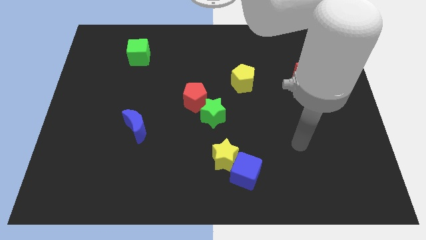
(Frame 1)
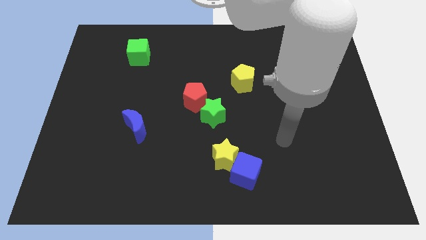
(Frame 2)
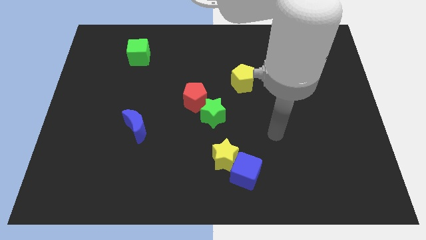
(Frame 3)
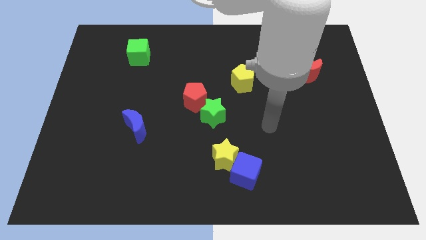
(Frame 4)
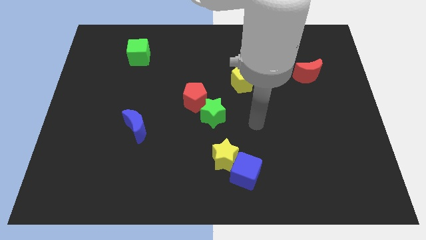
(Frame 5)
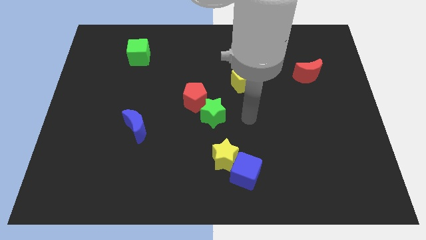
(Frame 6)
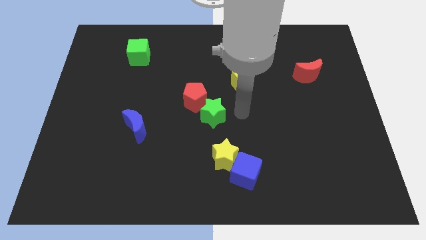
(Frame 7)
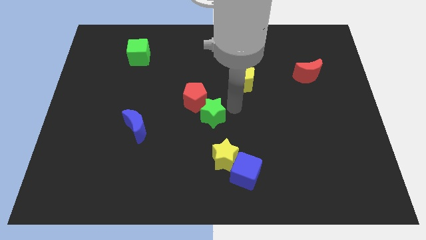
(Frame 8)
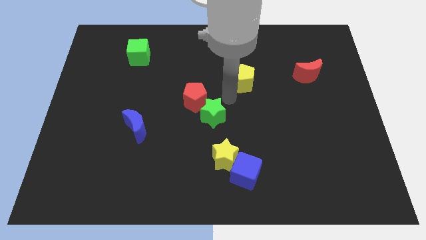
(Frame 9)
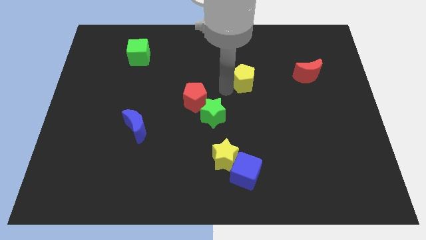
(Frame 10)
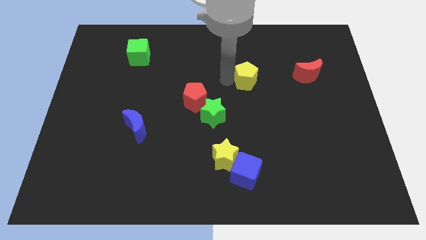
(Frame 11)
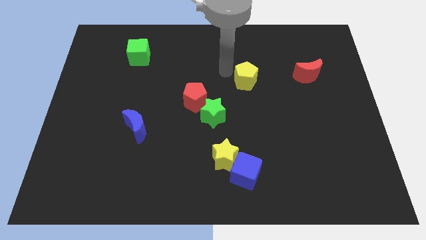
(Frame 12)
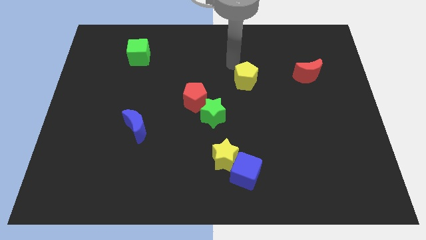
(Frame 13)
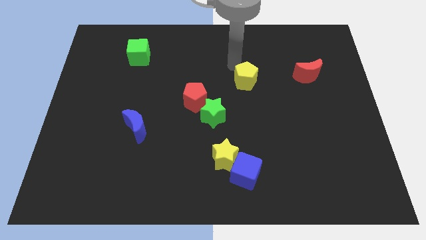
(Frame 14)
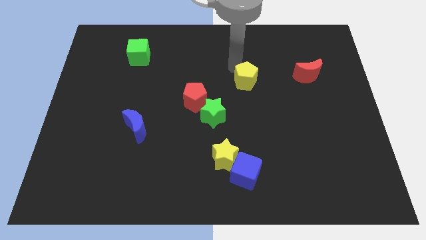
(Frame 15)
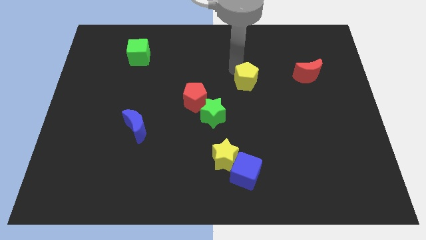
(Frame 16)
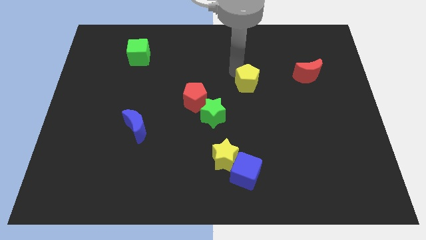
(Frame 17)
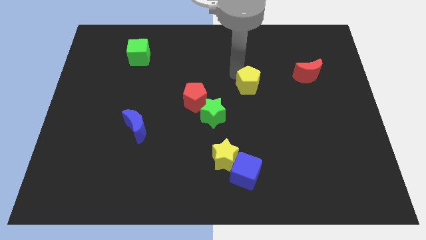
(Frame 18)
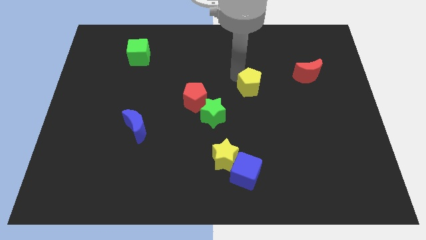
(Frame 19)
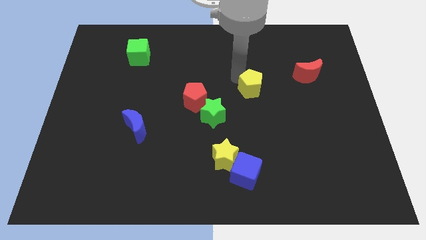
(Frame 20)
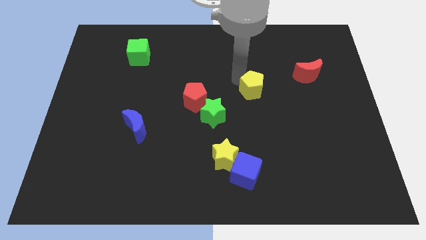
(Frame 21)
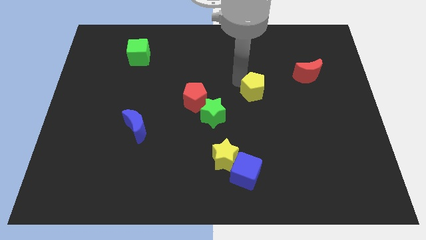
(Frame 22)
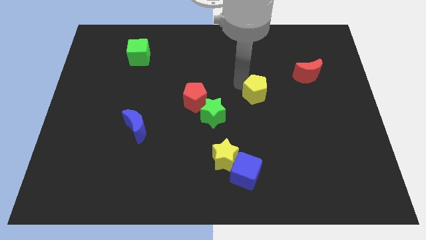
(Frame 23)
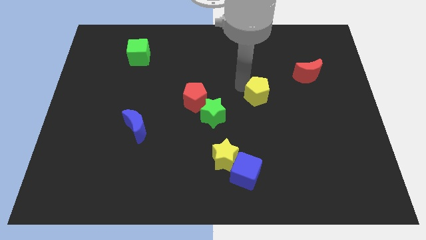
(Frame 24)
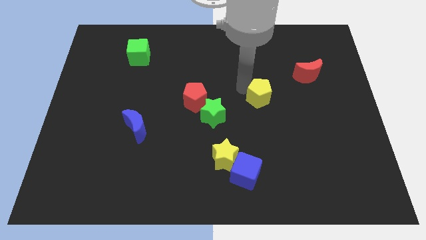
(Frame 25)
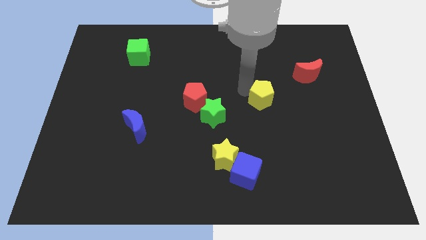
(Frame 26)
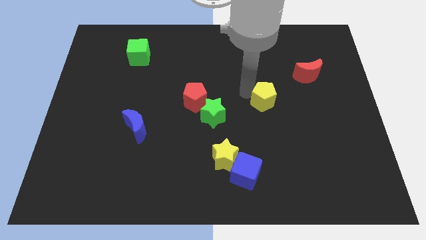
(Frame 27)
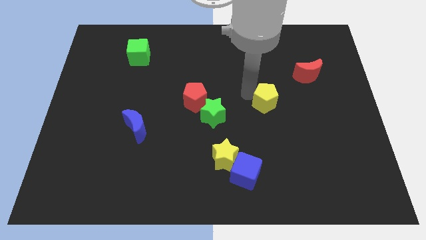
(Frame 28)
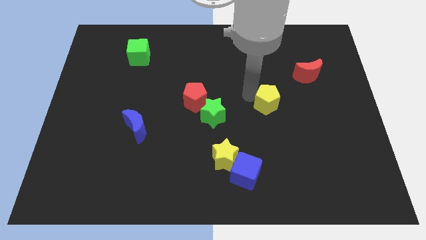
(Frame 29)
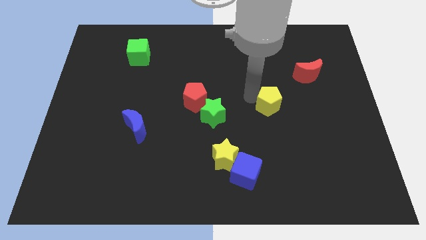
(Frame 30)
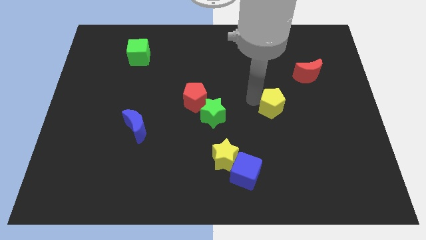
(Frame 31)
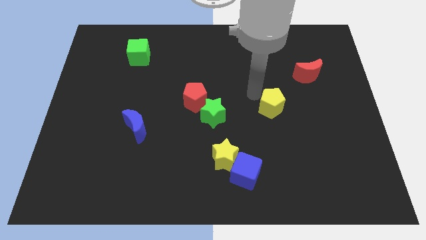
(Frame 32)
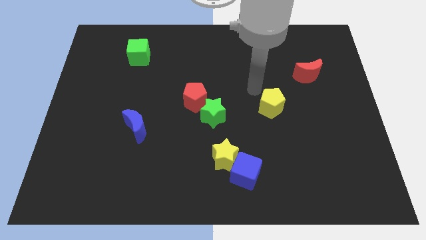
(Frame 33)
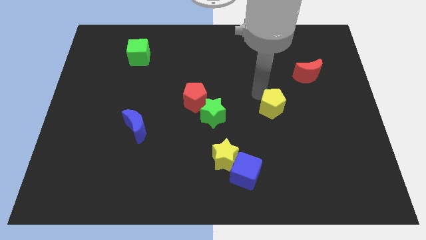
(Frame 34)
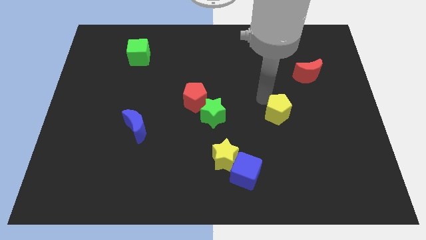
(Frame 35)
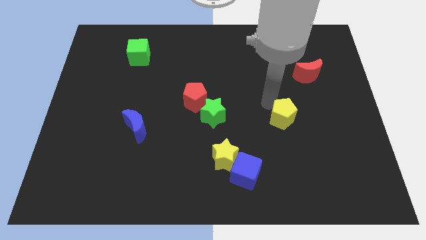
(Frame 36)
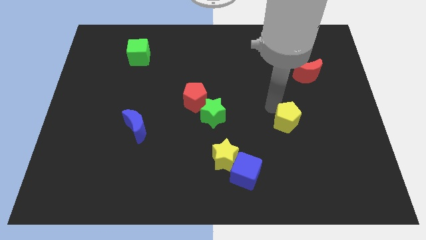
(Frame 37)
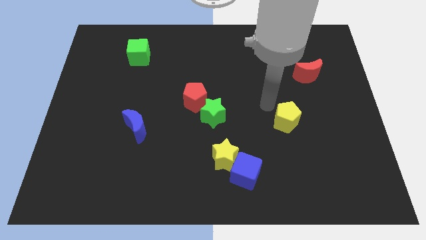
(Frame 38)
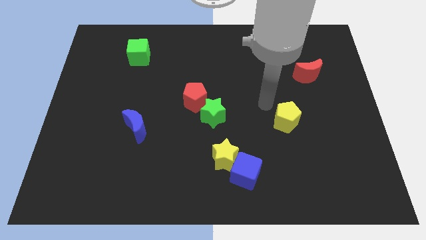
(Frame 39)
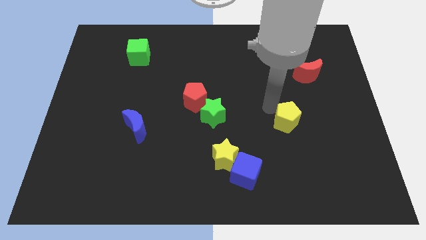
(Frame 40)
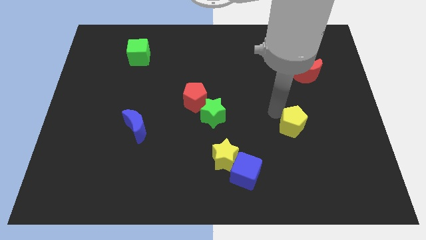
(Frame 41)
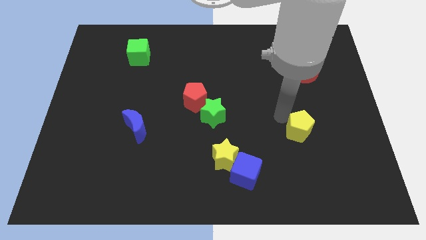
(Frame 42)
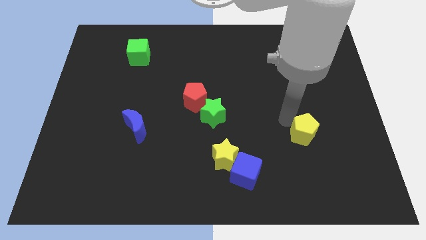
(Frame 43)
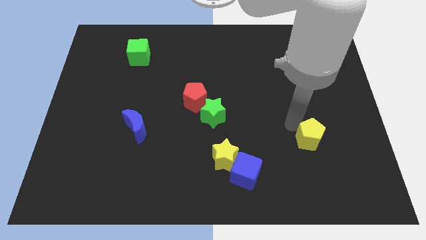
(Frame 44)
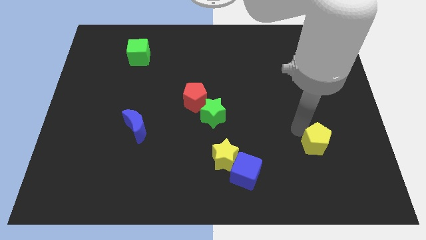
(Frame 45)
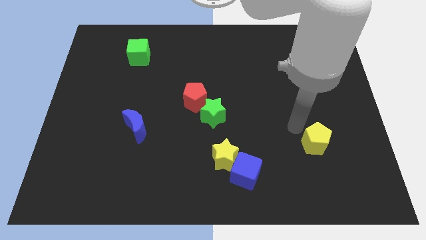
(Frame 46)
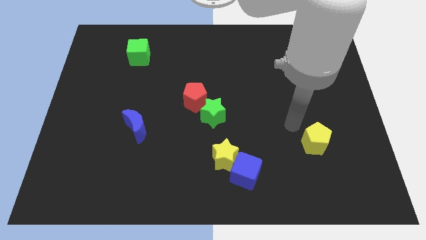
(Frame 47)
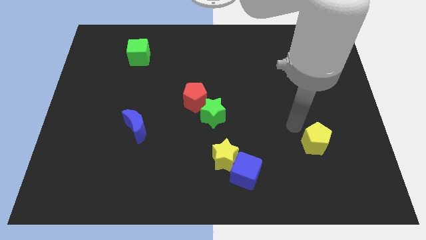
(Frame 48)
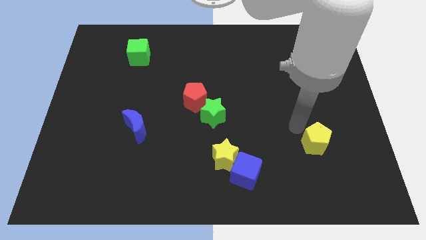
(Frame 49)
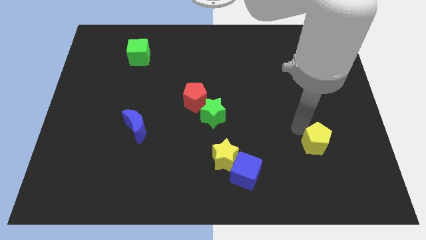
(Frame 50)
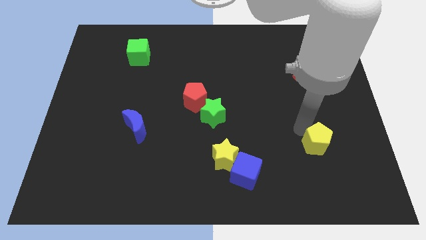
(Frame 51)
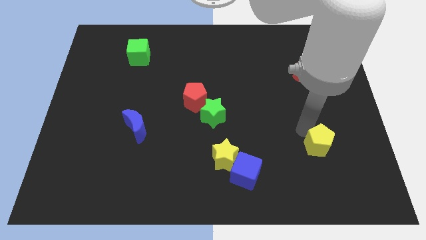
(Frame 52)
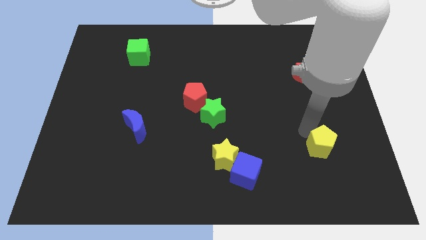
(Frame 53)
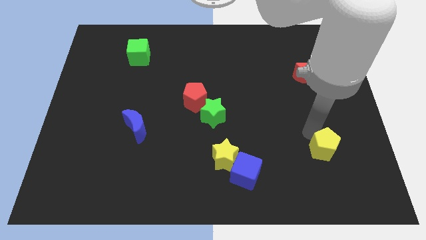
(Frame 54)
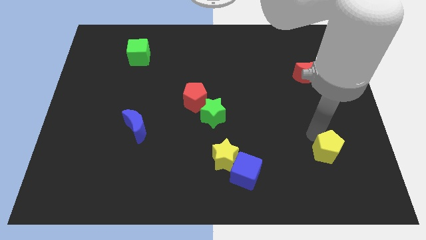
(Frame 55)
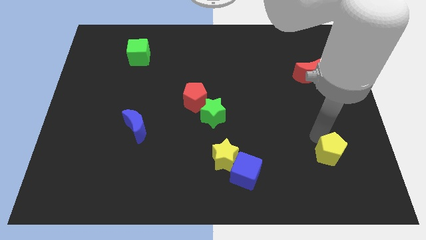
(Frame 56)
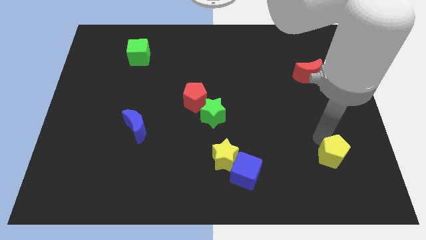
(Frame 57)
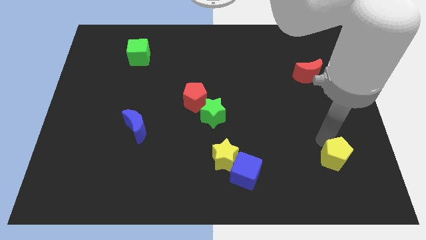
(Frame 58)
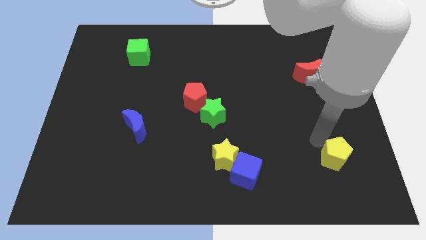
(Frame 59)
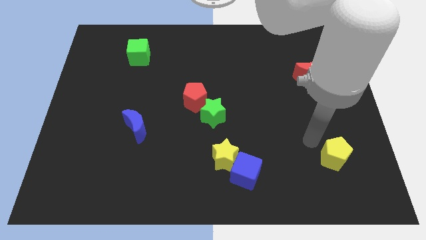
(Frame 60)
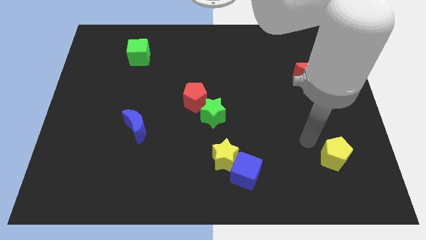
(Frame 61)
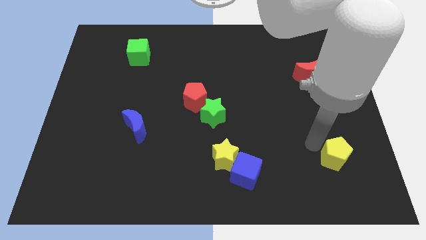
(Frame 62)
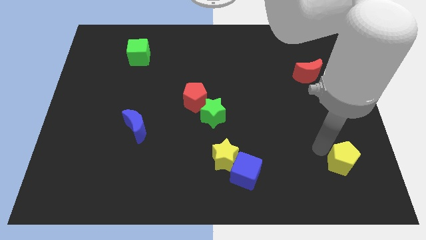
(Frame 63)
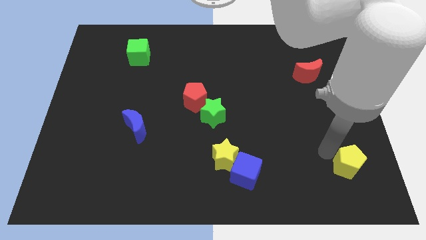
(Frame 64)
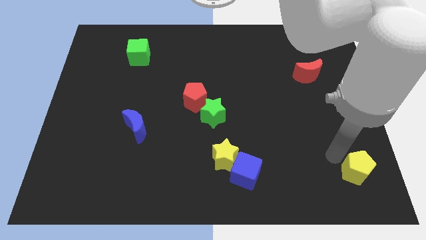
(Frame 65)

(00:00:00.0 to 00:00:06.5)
move the yellow pentagon to the lower right corner

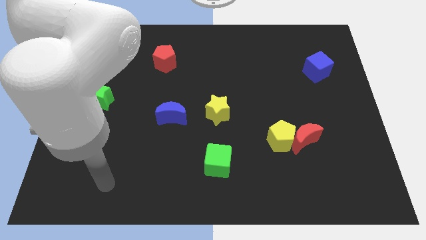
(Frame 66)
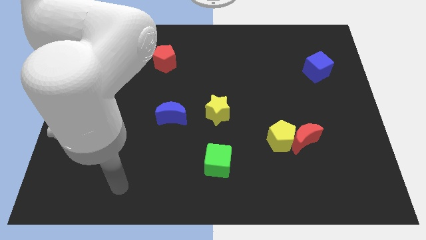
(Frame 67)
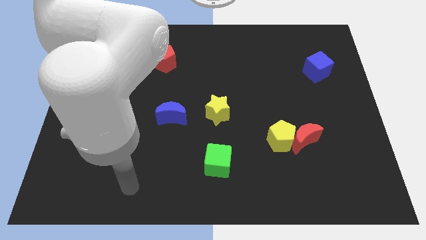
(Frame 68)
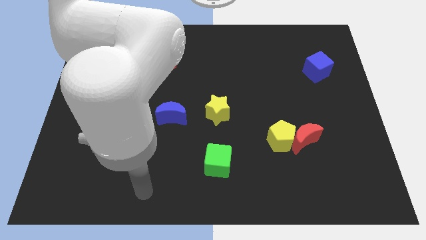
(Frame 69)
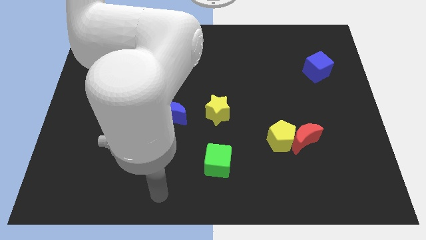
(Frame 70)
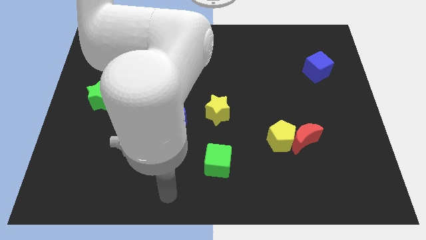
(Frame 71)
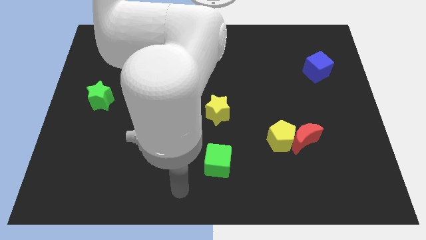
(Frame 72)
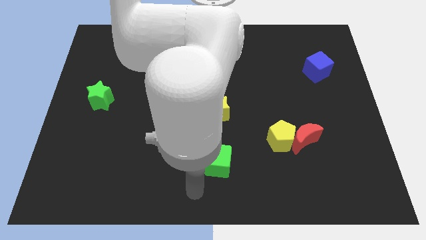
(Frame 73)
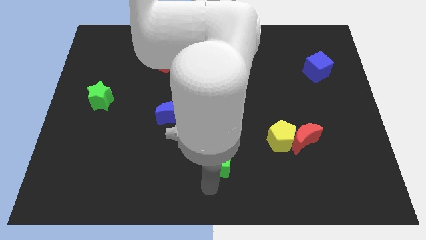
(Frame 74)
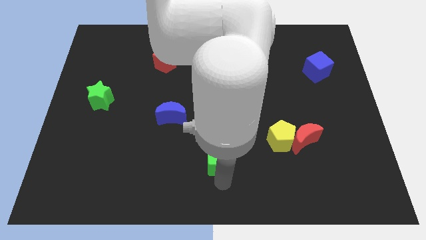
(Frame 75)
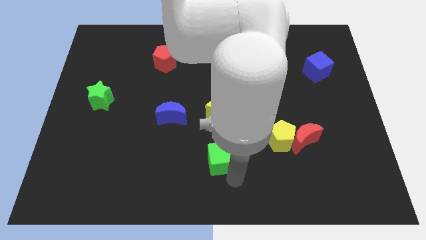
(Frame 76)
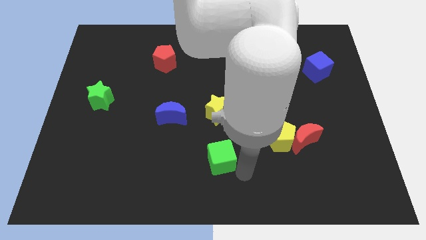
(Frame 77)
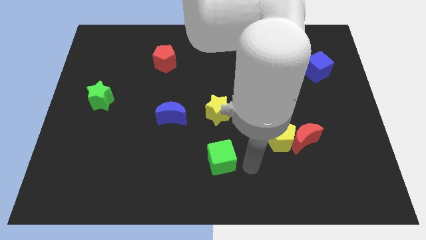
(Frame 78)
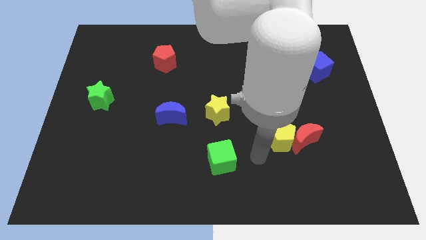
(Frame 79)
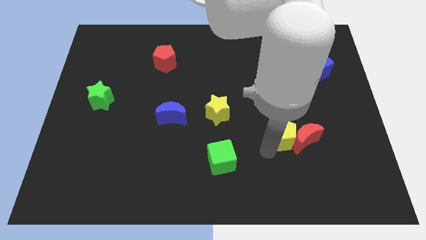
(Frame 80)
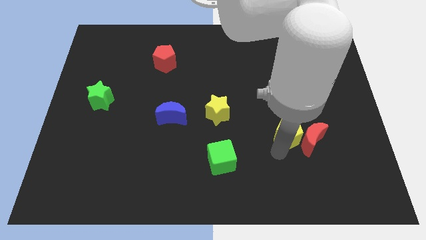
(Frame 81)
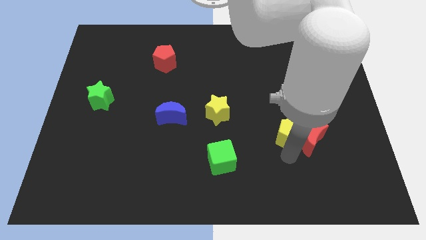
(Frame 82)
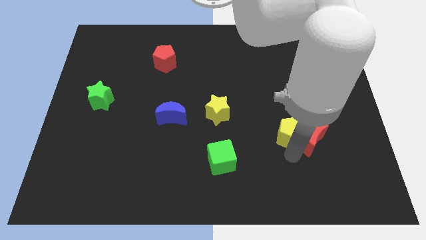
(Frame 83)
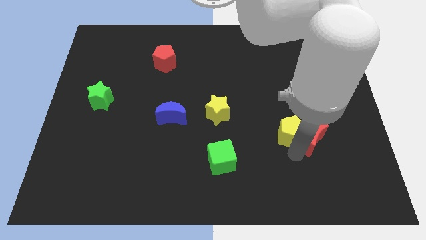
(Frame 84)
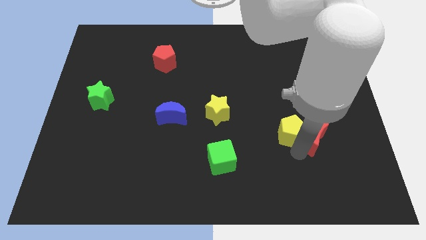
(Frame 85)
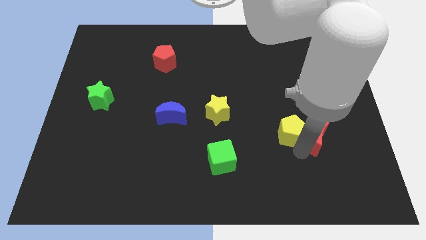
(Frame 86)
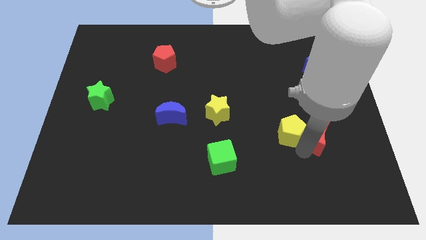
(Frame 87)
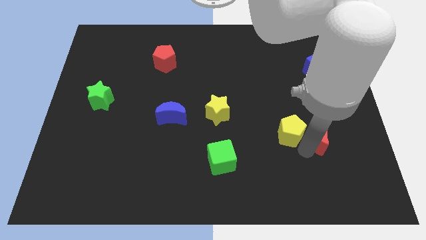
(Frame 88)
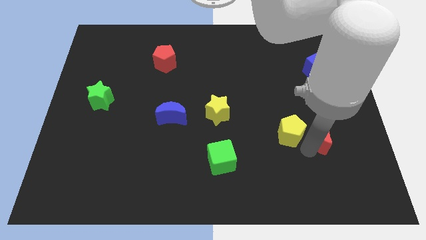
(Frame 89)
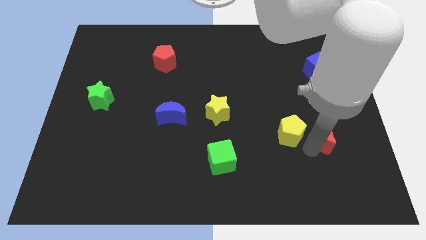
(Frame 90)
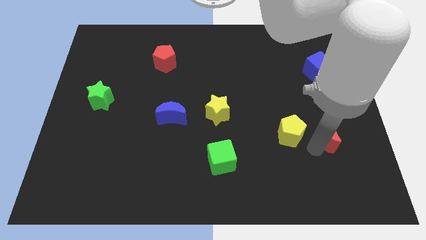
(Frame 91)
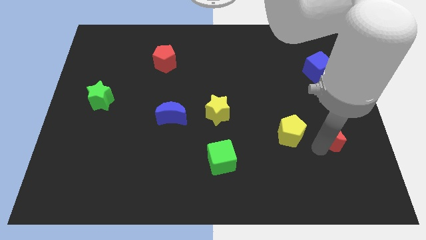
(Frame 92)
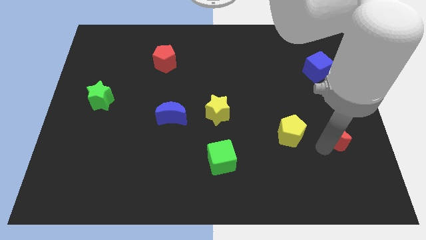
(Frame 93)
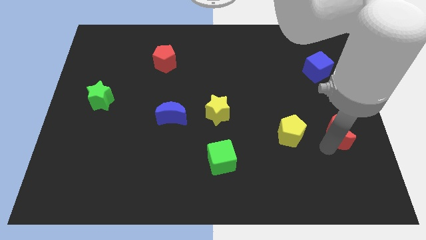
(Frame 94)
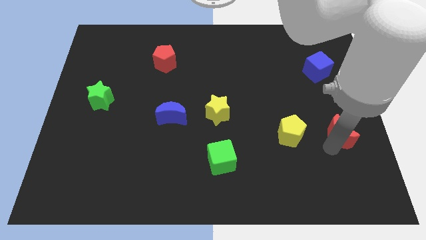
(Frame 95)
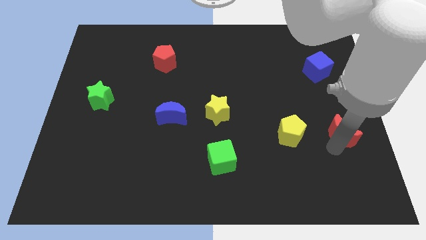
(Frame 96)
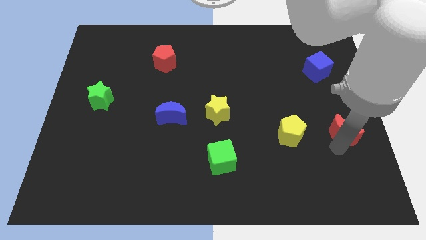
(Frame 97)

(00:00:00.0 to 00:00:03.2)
put the red moon to the center right
